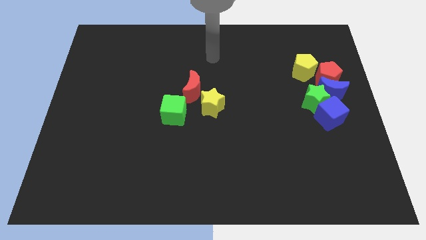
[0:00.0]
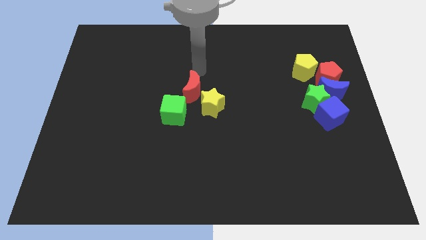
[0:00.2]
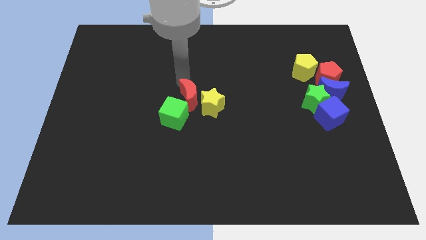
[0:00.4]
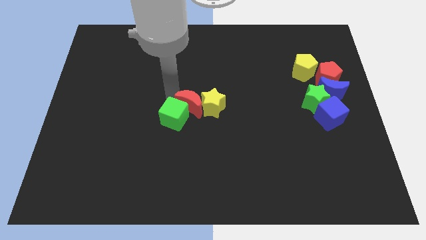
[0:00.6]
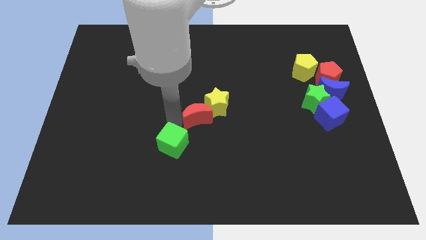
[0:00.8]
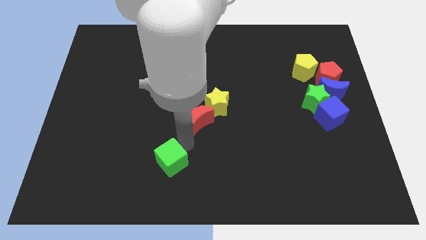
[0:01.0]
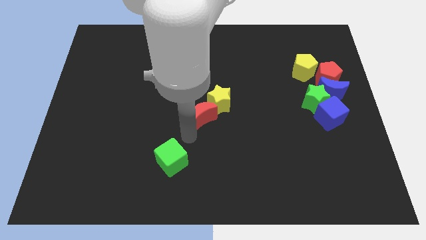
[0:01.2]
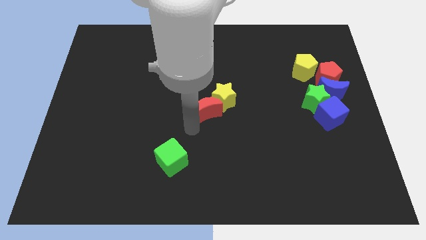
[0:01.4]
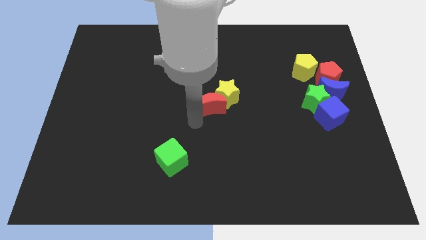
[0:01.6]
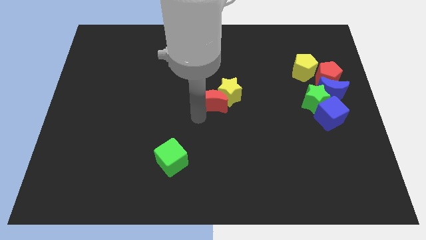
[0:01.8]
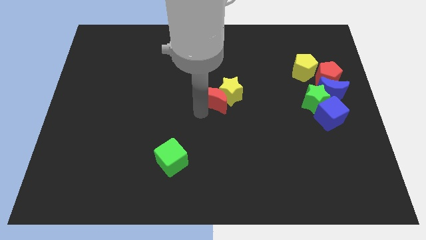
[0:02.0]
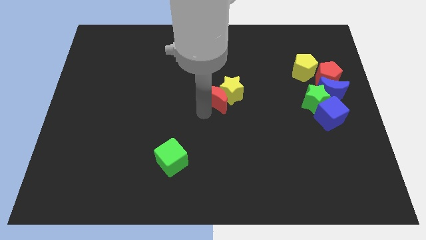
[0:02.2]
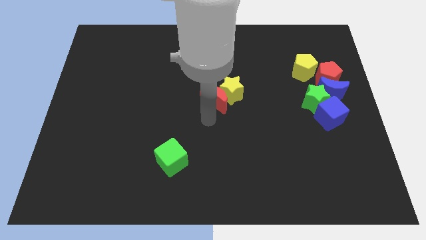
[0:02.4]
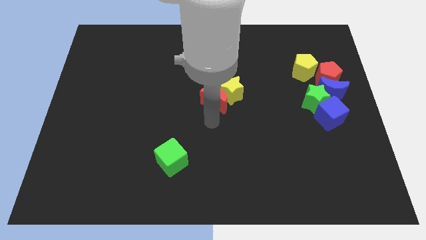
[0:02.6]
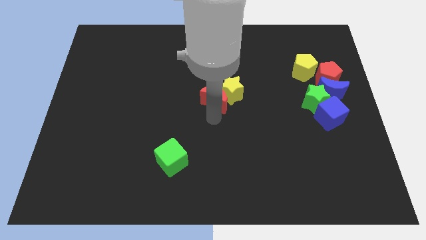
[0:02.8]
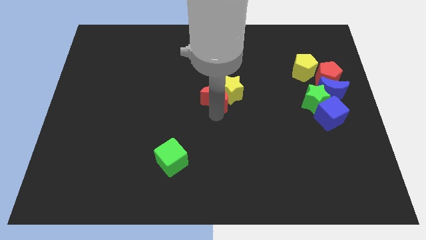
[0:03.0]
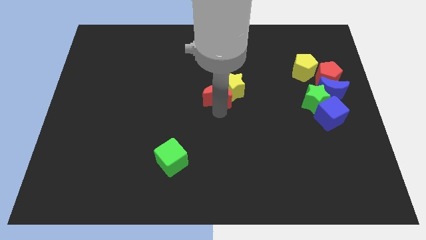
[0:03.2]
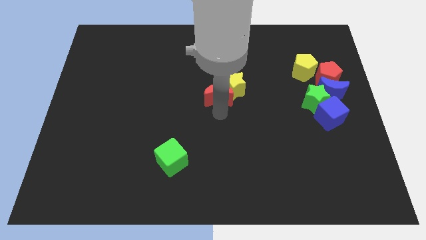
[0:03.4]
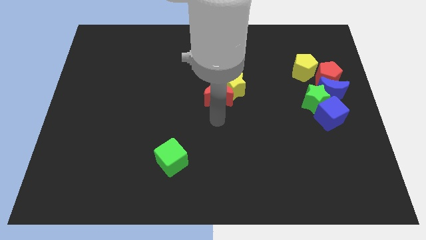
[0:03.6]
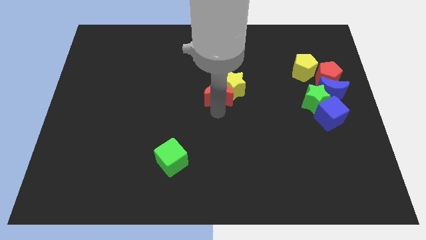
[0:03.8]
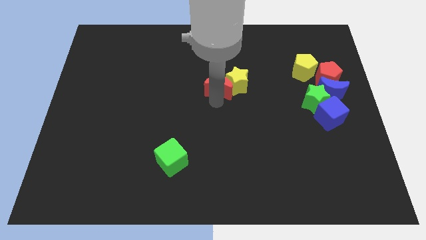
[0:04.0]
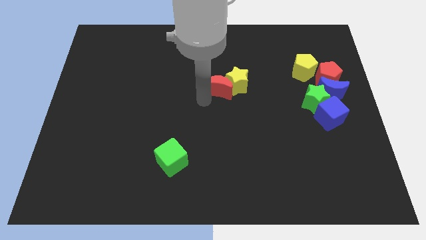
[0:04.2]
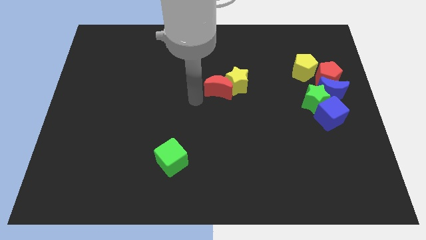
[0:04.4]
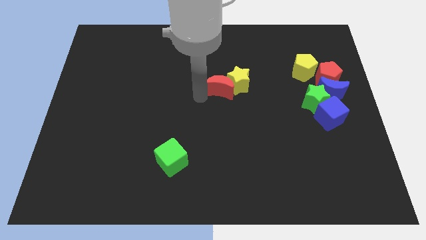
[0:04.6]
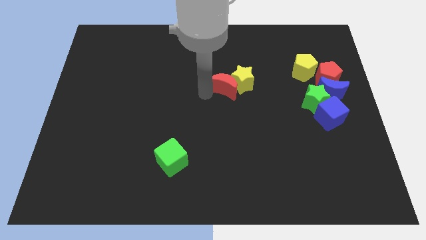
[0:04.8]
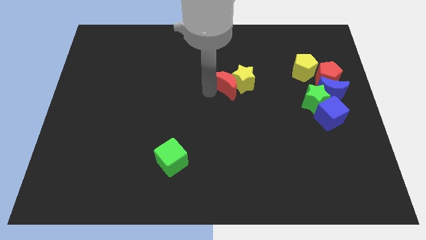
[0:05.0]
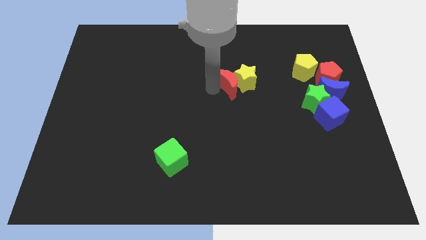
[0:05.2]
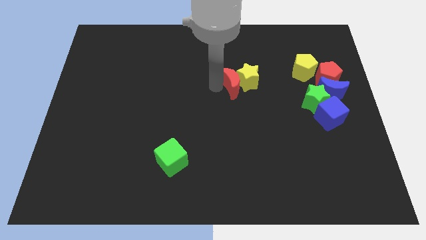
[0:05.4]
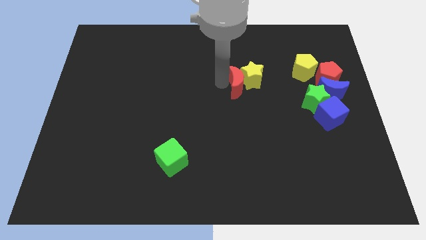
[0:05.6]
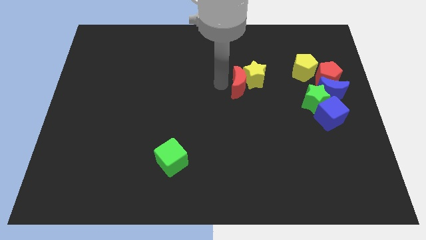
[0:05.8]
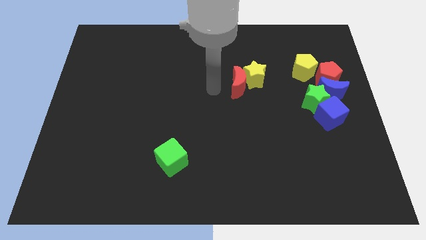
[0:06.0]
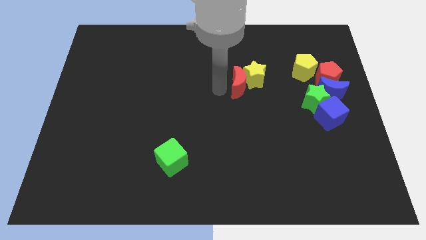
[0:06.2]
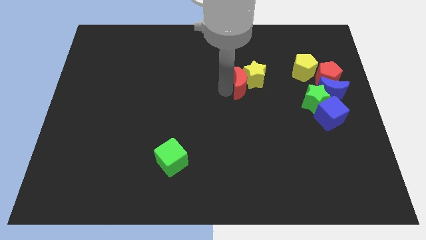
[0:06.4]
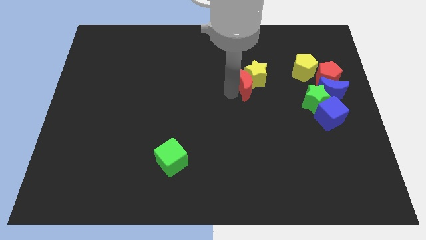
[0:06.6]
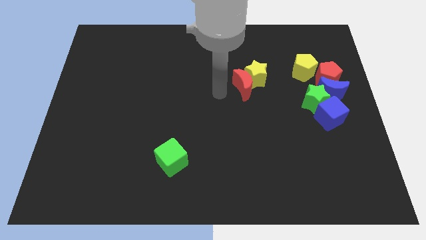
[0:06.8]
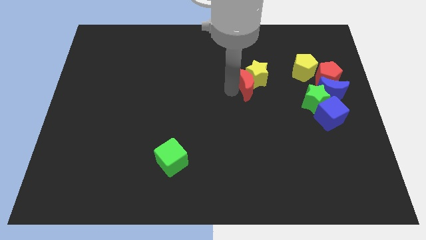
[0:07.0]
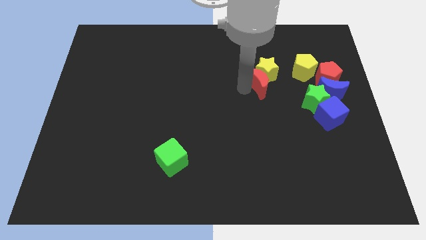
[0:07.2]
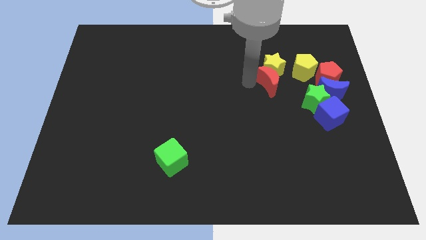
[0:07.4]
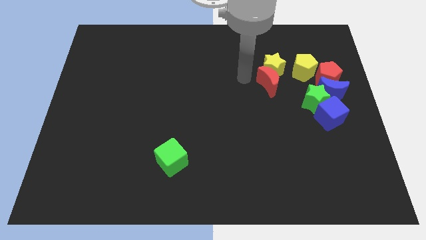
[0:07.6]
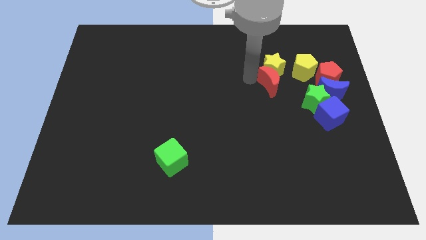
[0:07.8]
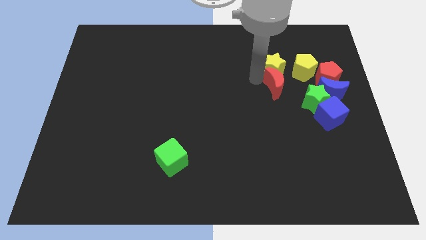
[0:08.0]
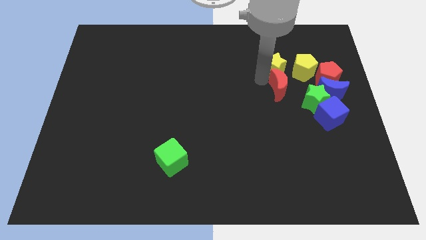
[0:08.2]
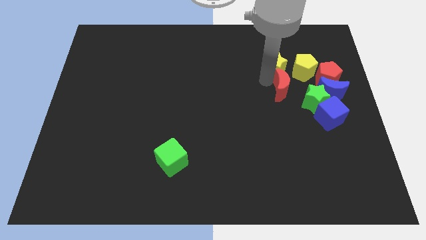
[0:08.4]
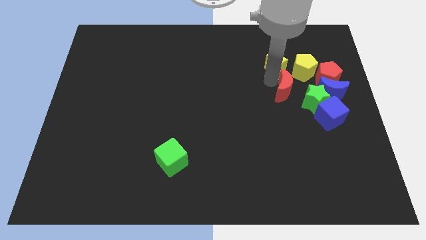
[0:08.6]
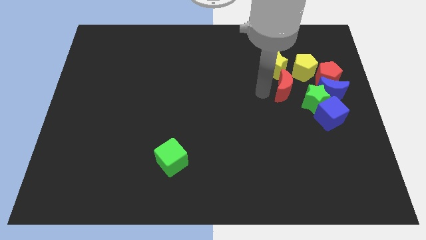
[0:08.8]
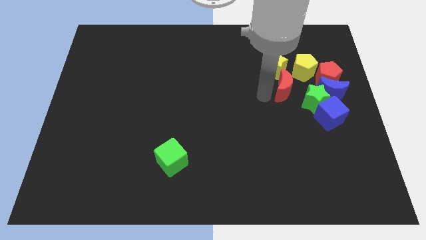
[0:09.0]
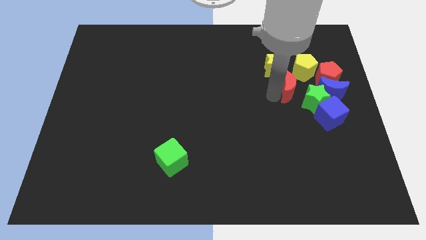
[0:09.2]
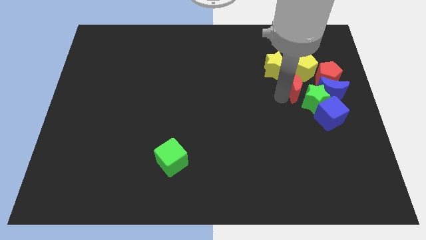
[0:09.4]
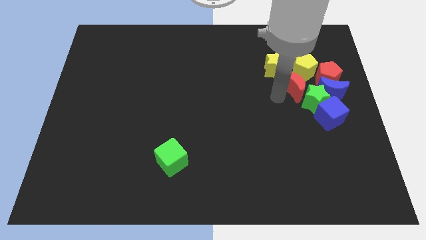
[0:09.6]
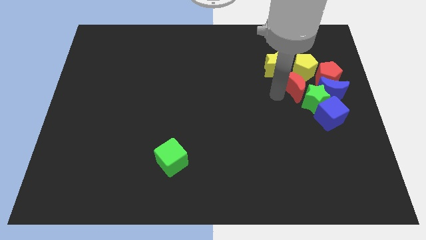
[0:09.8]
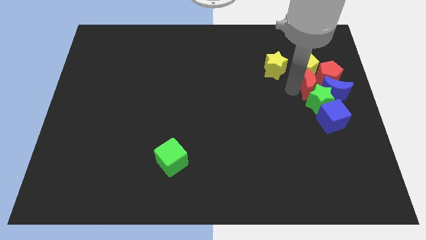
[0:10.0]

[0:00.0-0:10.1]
put the red moon to the red pentagon

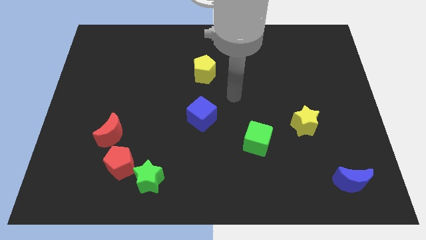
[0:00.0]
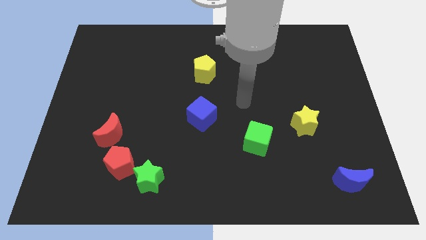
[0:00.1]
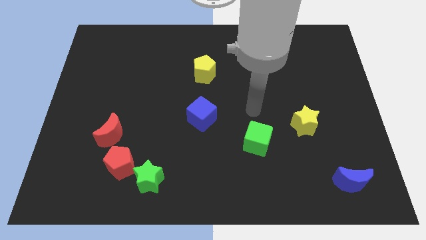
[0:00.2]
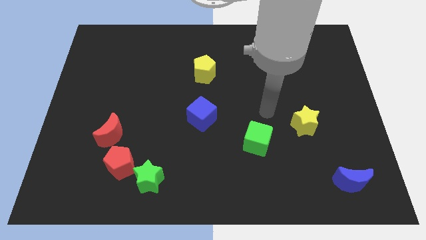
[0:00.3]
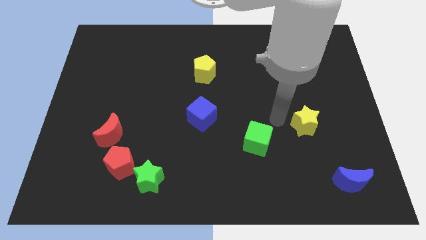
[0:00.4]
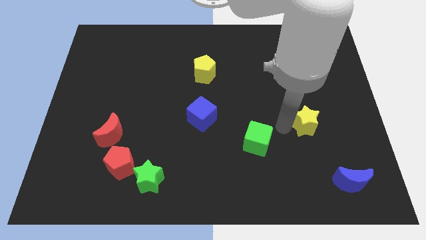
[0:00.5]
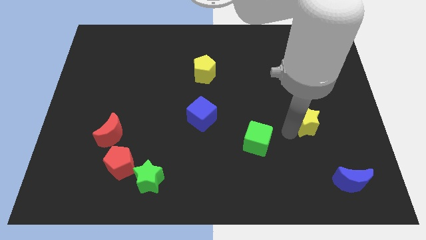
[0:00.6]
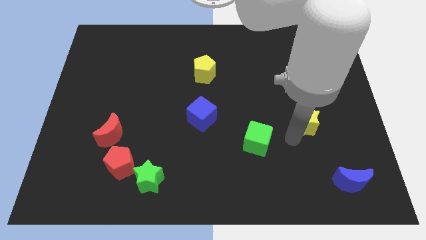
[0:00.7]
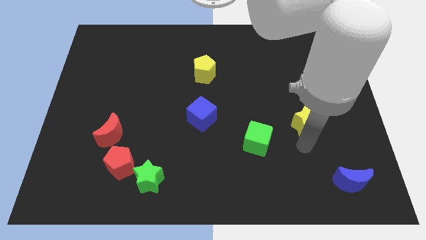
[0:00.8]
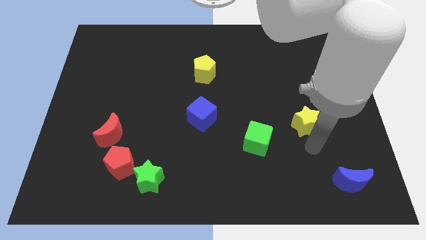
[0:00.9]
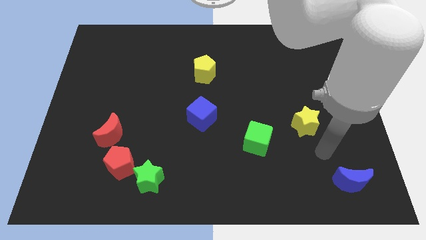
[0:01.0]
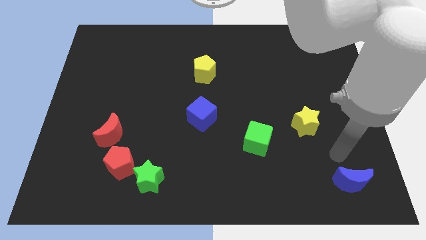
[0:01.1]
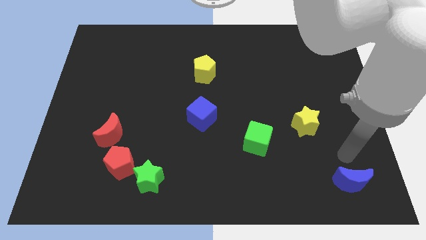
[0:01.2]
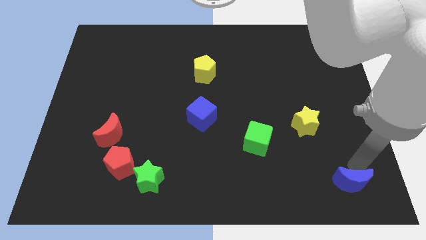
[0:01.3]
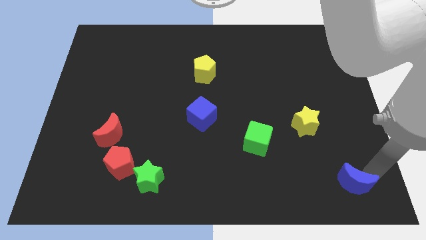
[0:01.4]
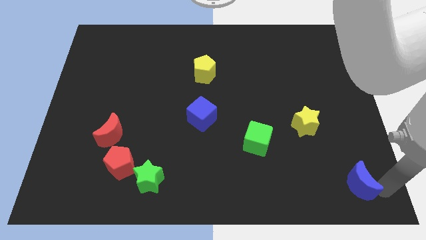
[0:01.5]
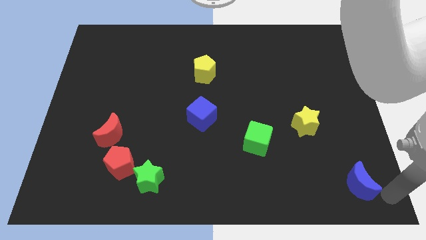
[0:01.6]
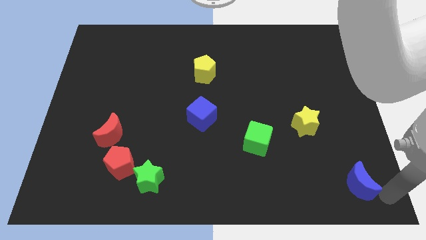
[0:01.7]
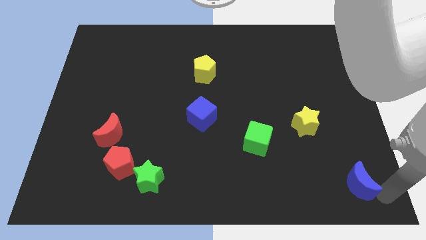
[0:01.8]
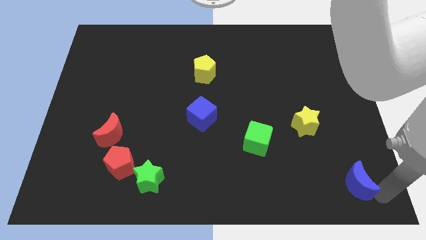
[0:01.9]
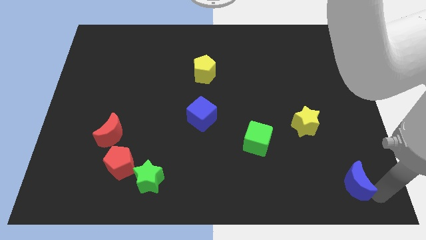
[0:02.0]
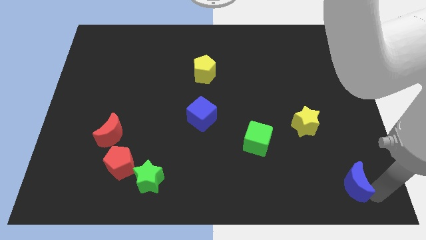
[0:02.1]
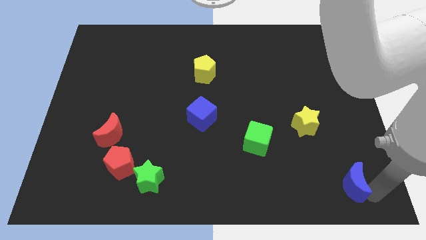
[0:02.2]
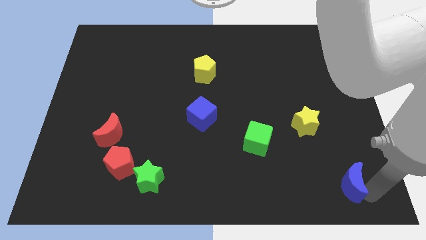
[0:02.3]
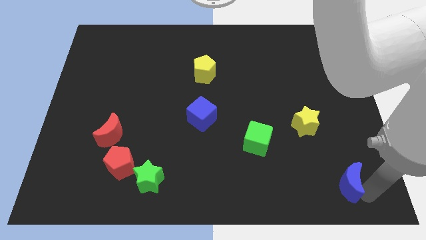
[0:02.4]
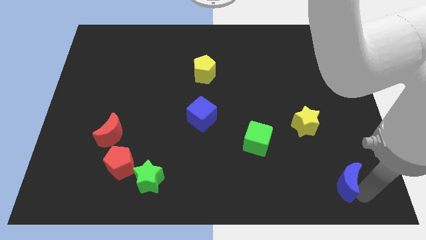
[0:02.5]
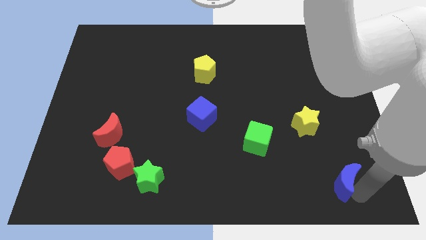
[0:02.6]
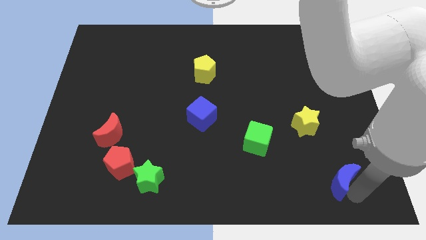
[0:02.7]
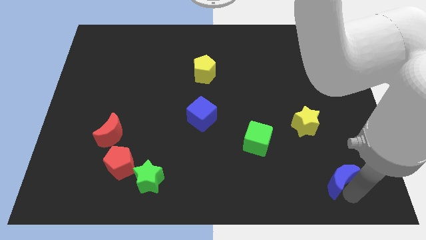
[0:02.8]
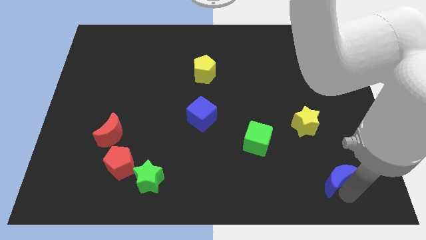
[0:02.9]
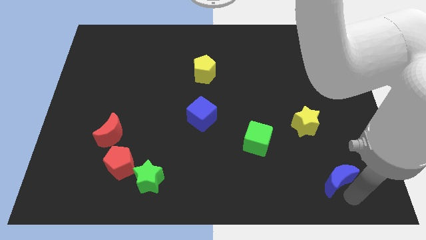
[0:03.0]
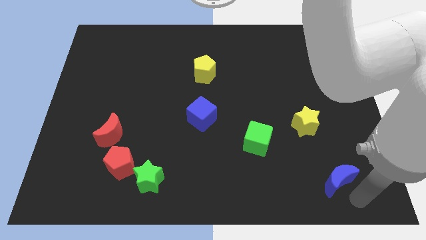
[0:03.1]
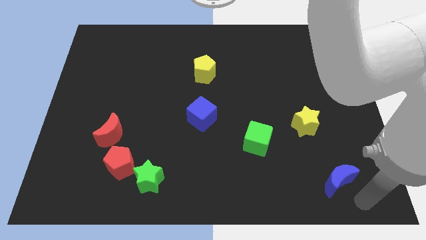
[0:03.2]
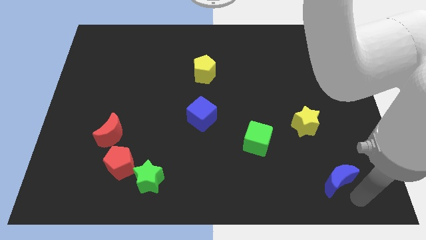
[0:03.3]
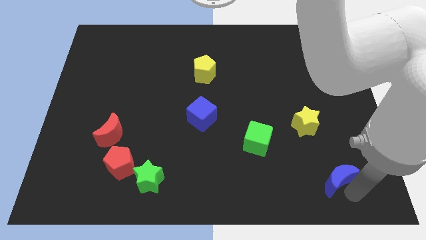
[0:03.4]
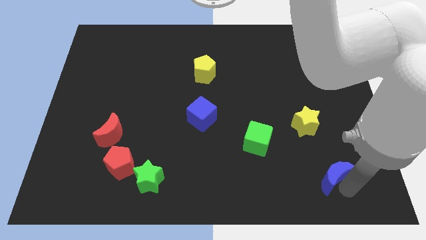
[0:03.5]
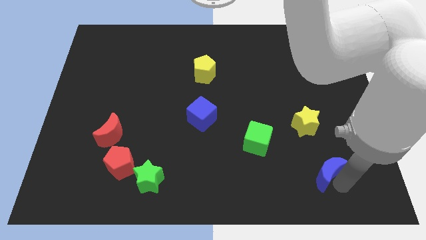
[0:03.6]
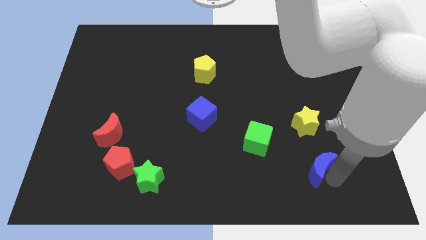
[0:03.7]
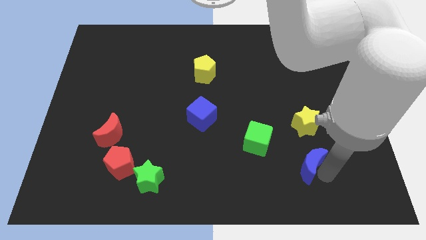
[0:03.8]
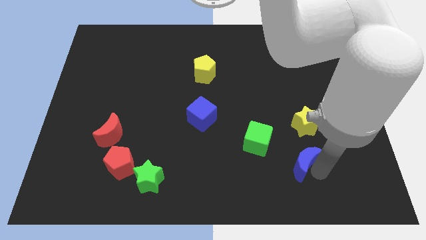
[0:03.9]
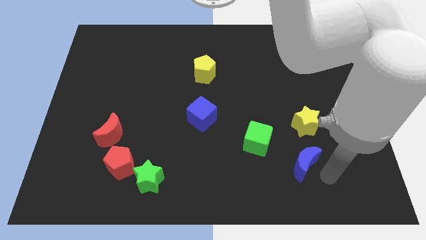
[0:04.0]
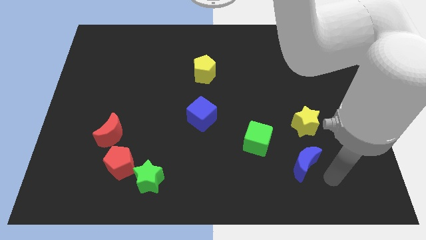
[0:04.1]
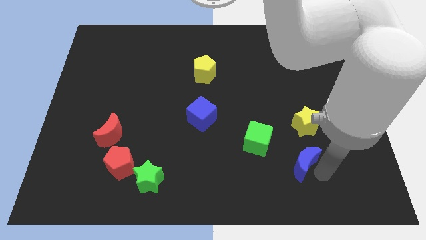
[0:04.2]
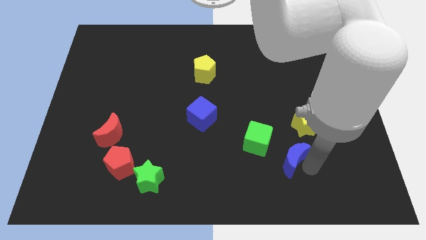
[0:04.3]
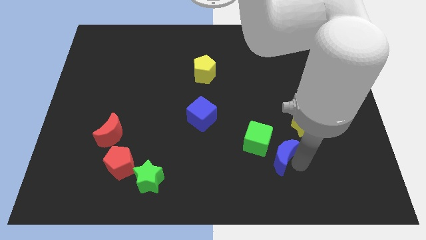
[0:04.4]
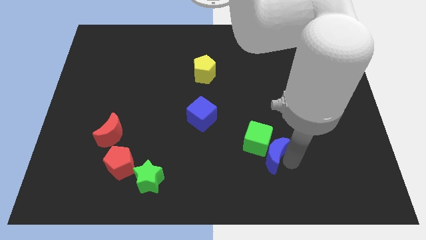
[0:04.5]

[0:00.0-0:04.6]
move the blue moon to the green cube
